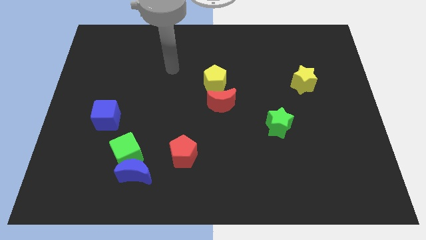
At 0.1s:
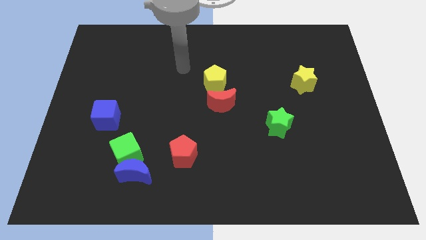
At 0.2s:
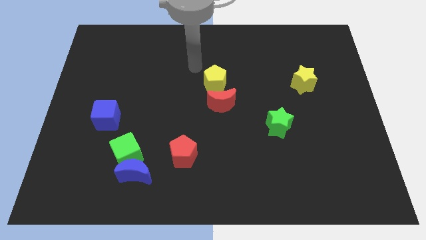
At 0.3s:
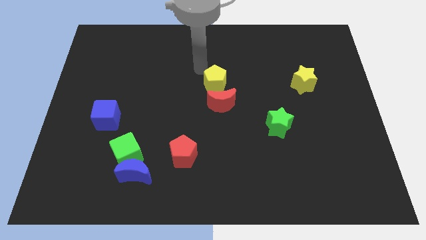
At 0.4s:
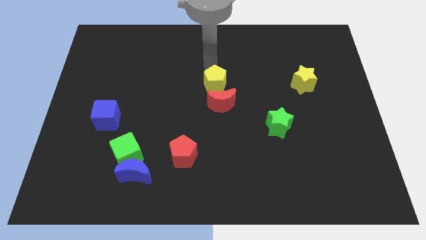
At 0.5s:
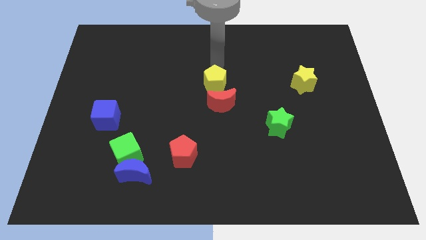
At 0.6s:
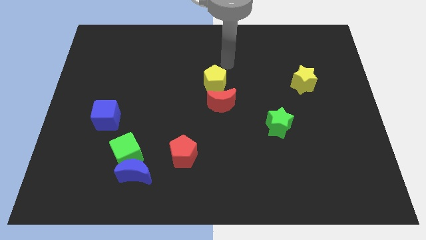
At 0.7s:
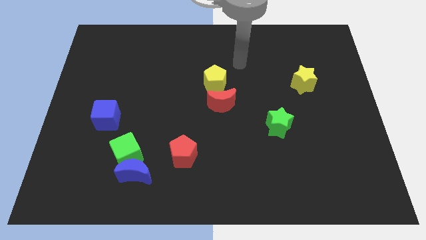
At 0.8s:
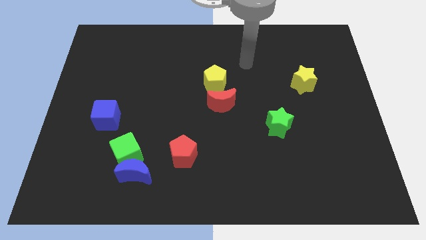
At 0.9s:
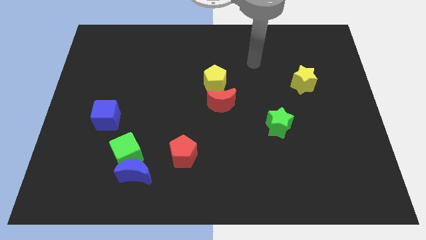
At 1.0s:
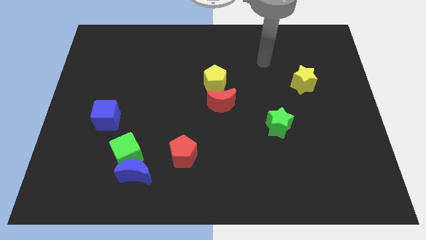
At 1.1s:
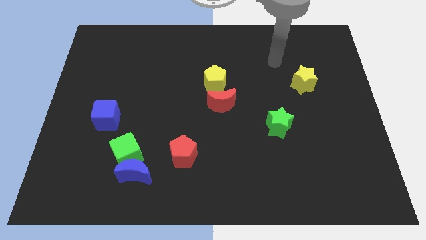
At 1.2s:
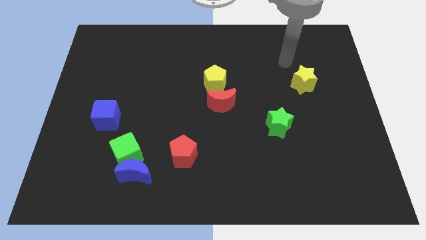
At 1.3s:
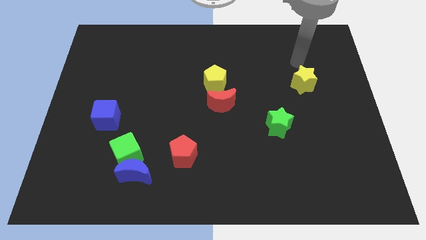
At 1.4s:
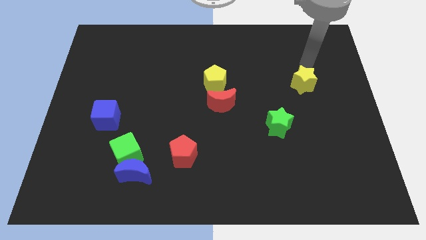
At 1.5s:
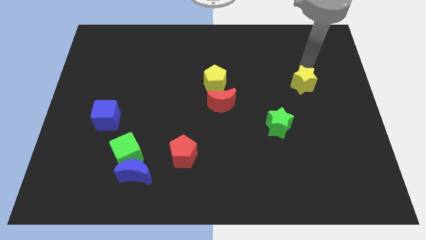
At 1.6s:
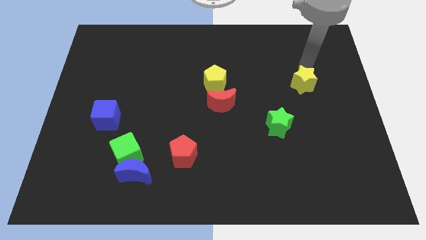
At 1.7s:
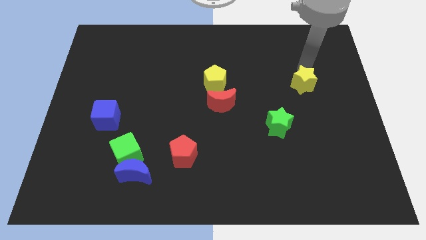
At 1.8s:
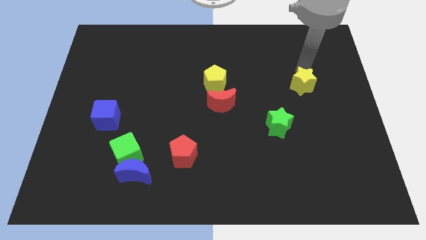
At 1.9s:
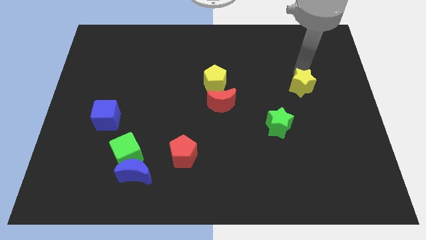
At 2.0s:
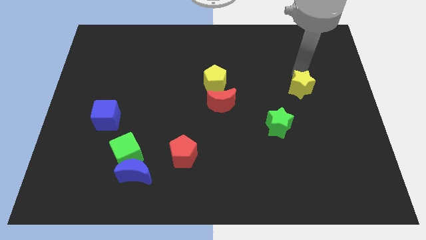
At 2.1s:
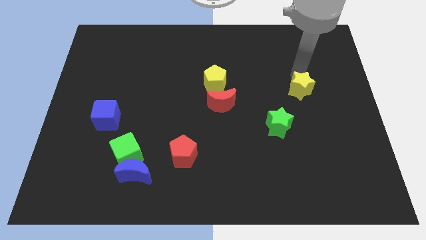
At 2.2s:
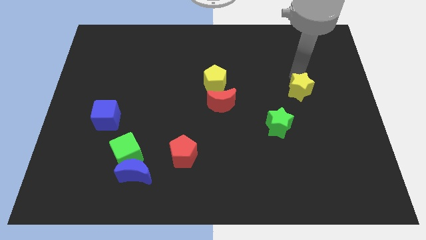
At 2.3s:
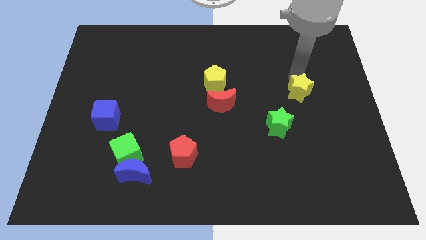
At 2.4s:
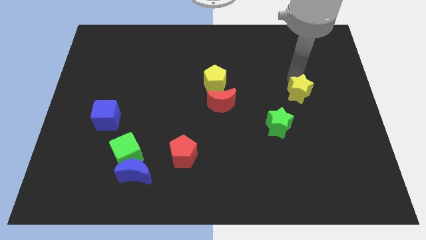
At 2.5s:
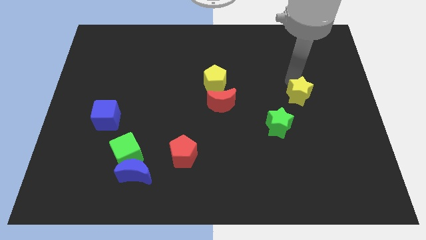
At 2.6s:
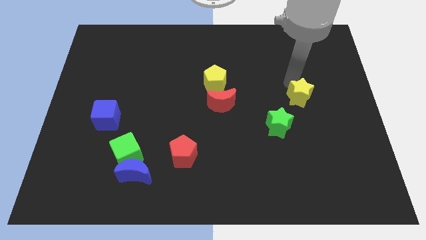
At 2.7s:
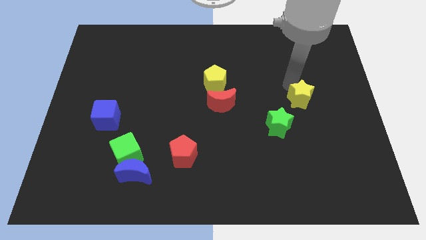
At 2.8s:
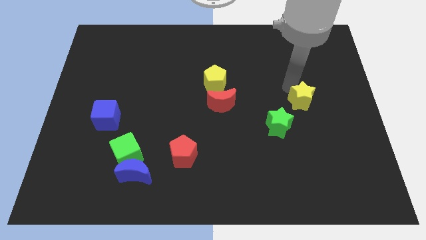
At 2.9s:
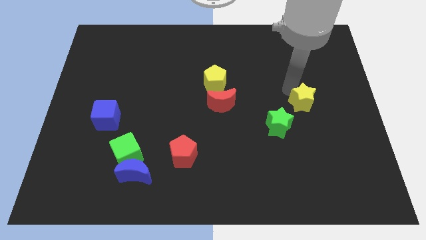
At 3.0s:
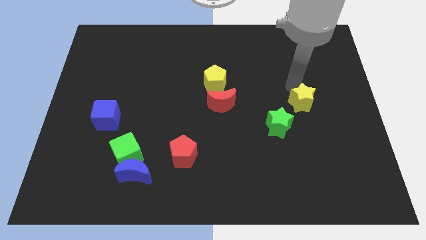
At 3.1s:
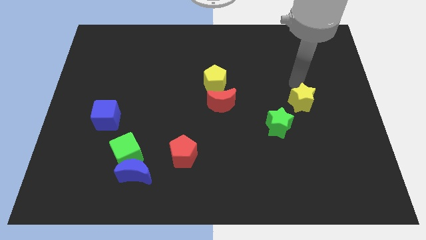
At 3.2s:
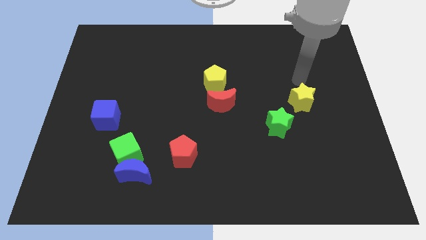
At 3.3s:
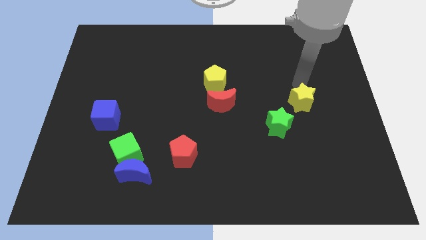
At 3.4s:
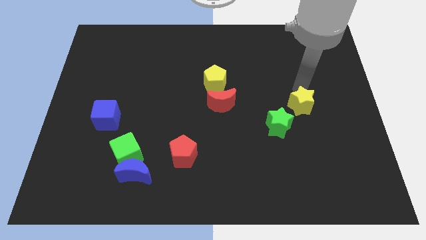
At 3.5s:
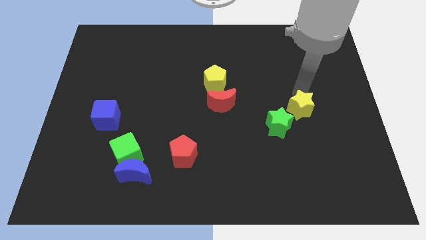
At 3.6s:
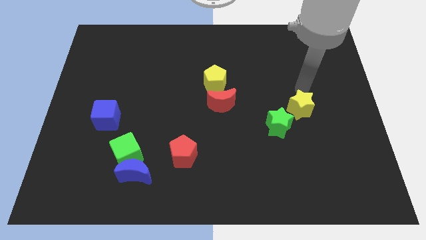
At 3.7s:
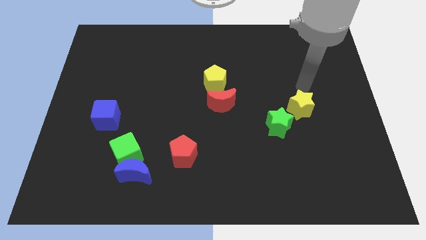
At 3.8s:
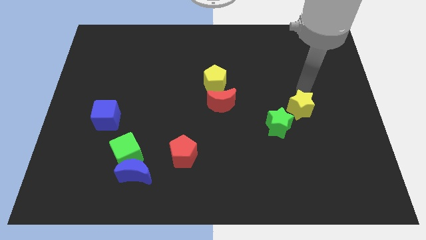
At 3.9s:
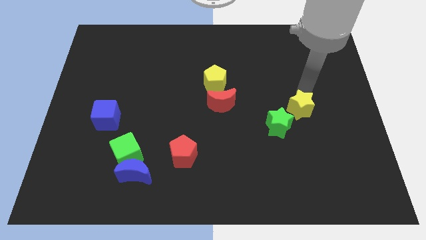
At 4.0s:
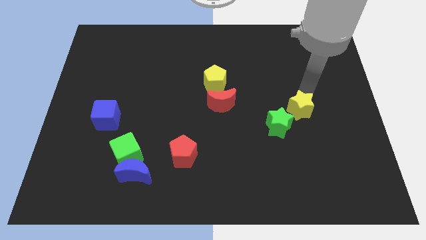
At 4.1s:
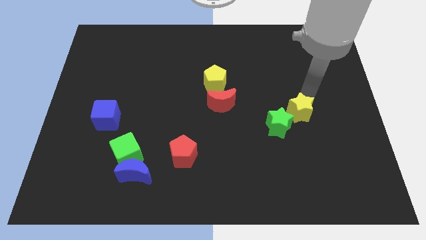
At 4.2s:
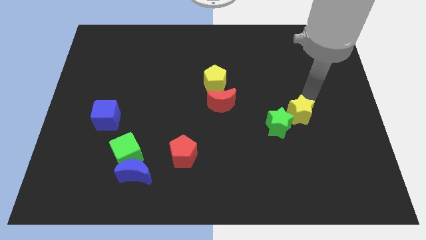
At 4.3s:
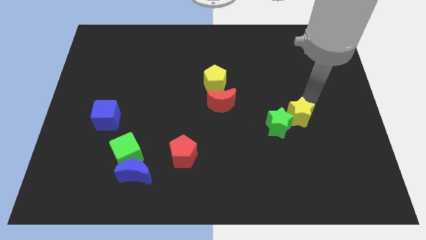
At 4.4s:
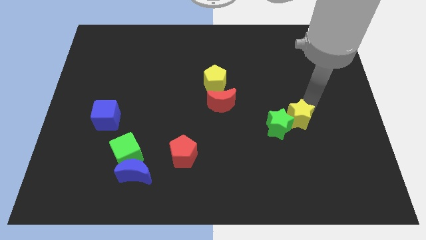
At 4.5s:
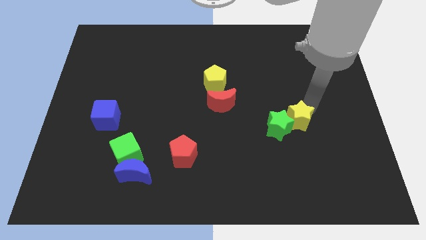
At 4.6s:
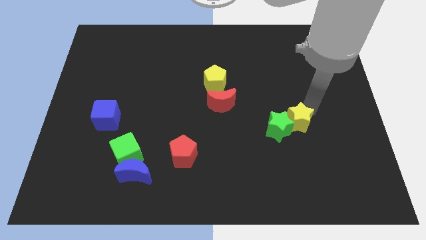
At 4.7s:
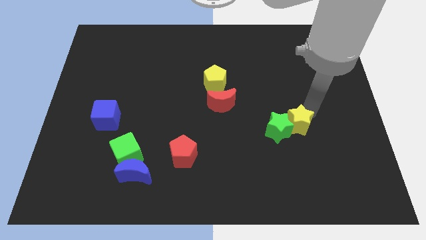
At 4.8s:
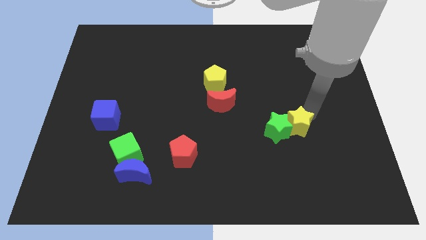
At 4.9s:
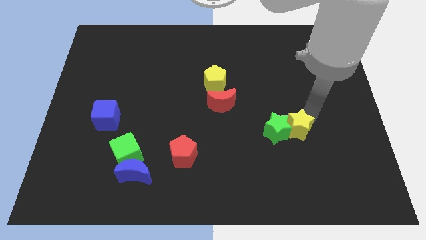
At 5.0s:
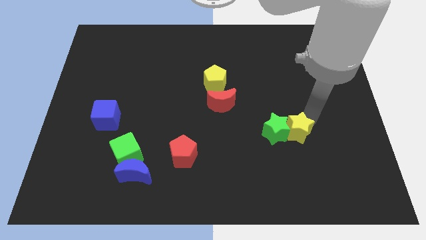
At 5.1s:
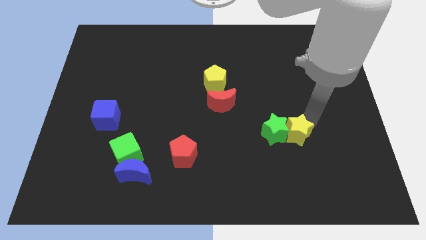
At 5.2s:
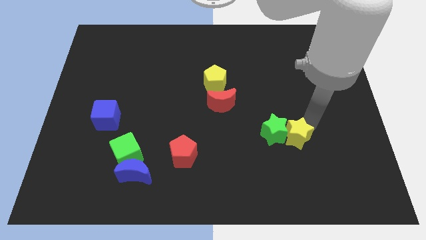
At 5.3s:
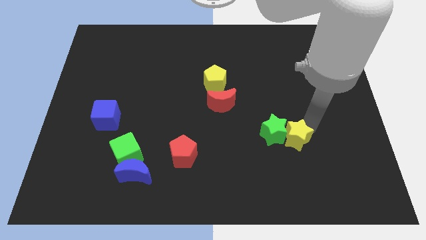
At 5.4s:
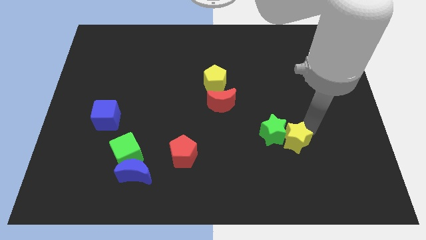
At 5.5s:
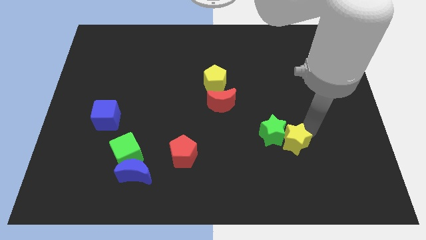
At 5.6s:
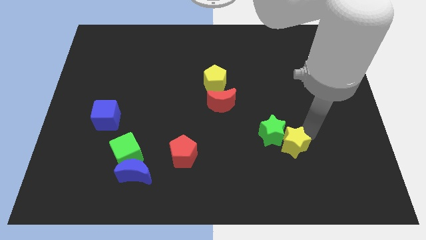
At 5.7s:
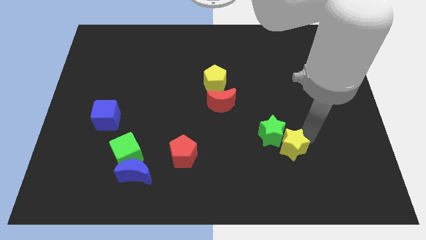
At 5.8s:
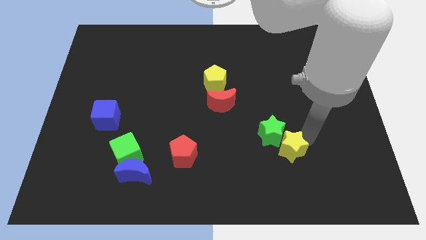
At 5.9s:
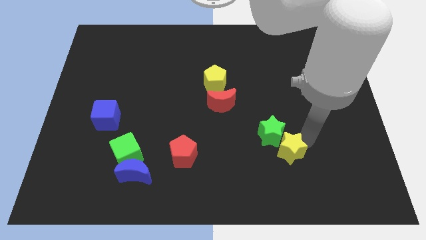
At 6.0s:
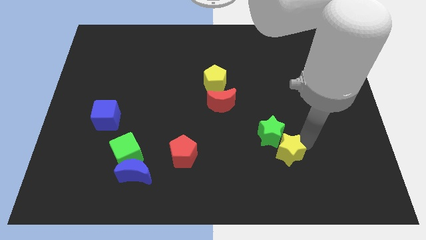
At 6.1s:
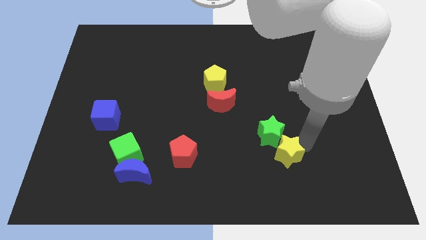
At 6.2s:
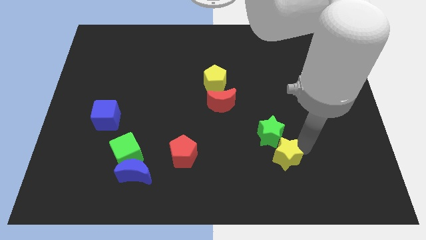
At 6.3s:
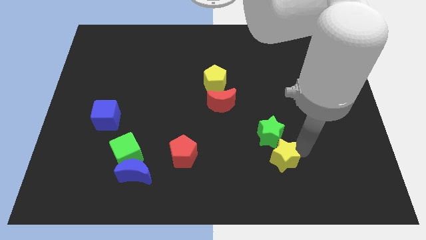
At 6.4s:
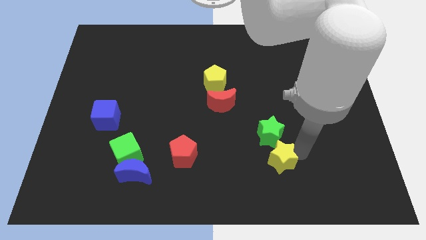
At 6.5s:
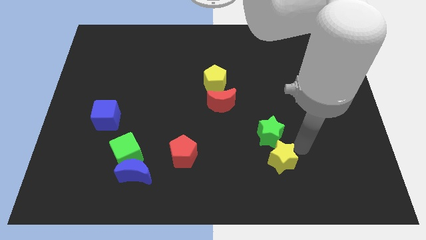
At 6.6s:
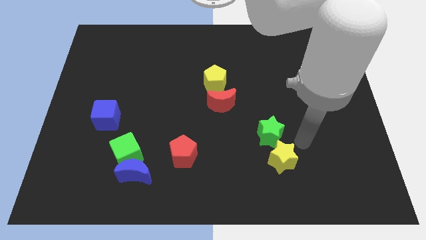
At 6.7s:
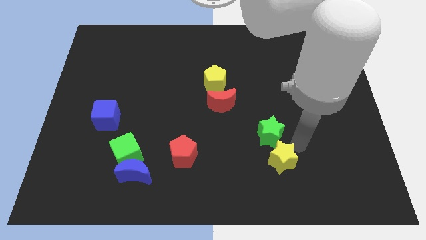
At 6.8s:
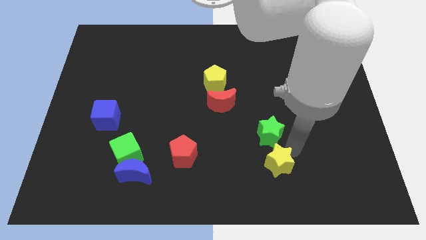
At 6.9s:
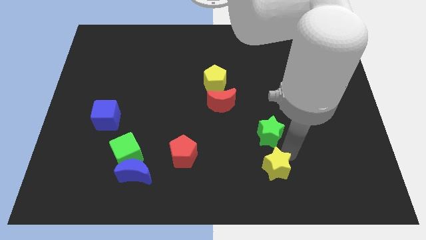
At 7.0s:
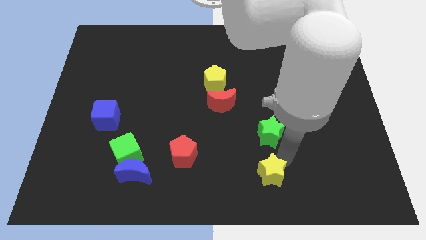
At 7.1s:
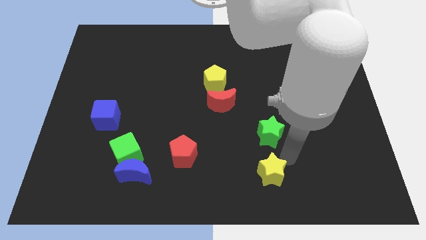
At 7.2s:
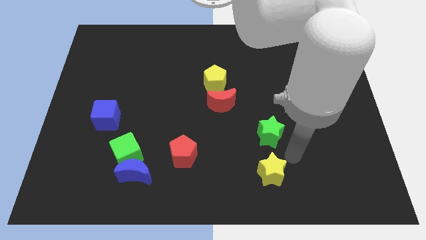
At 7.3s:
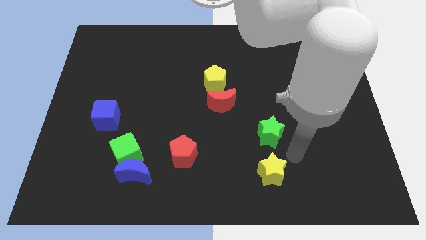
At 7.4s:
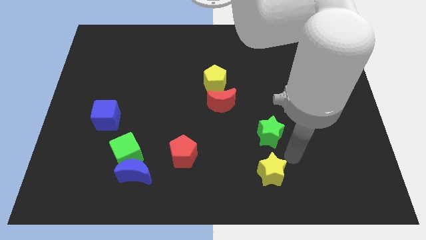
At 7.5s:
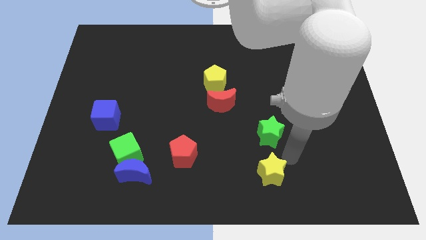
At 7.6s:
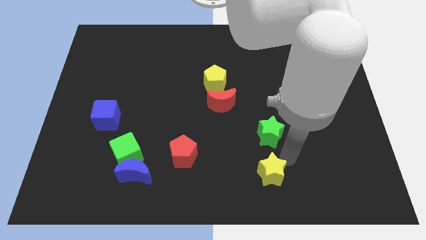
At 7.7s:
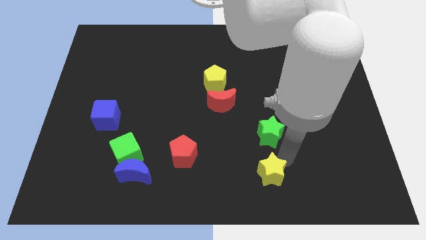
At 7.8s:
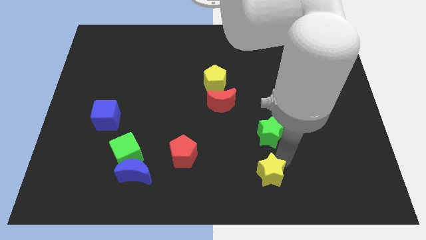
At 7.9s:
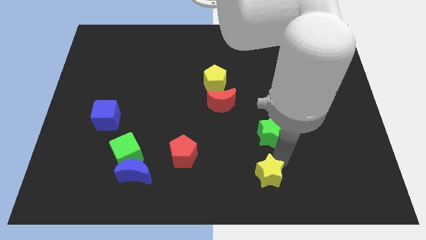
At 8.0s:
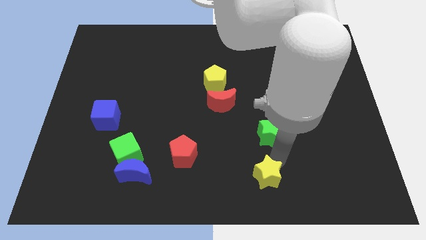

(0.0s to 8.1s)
move the yellow star to the bottom
